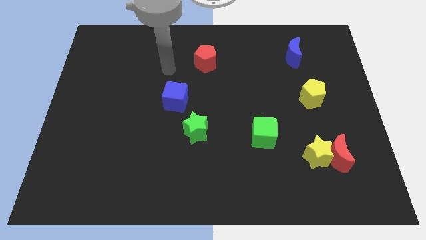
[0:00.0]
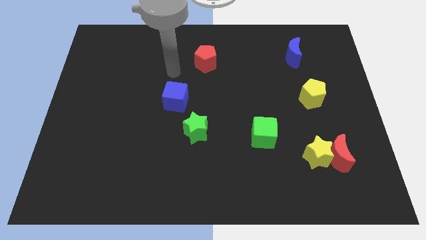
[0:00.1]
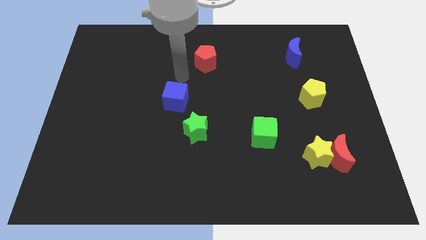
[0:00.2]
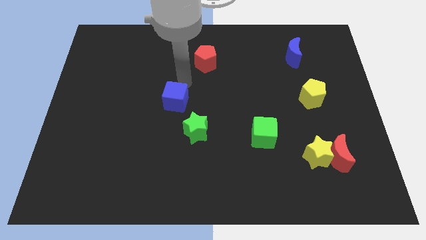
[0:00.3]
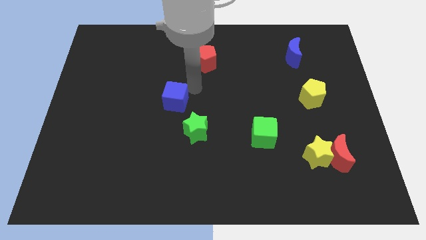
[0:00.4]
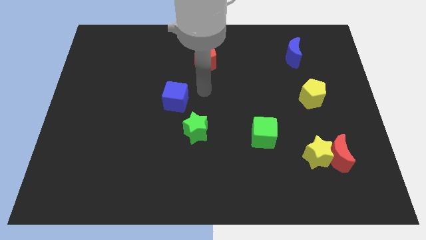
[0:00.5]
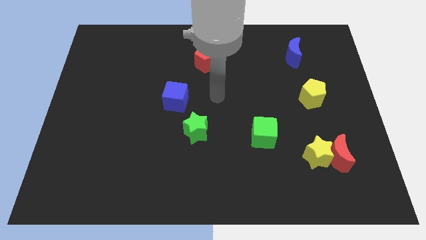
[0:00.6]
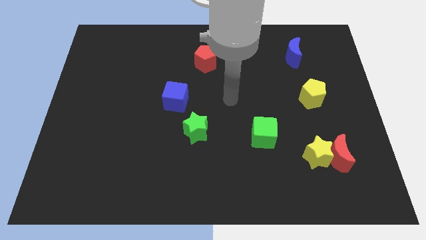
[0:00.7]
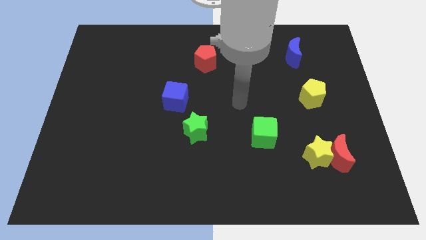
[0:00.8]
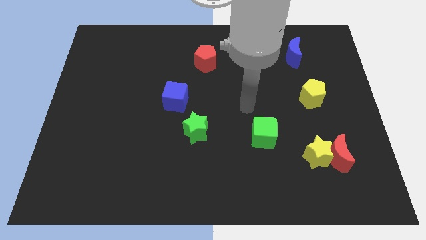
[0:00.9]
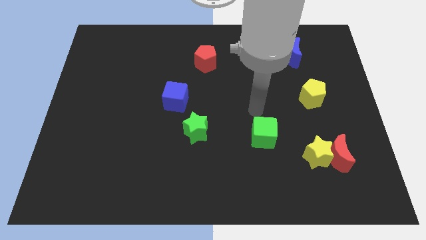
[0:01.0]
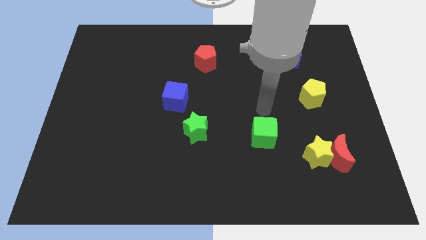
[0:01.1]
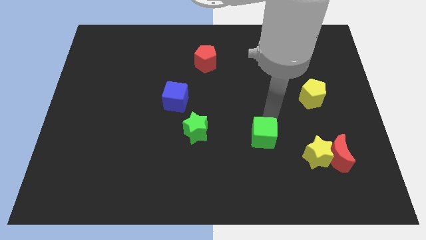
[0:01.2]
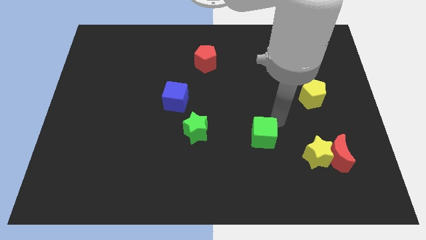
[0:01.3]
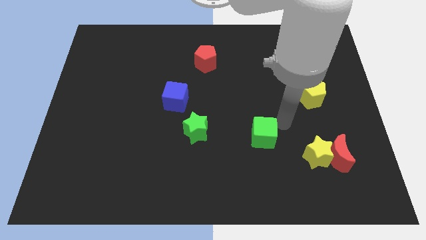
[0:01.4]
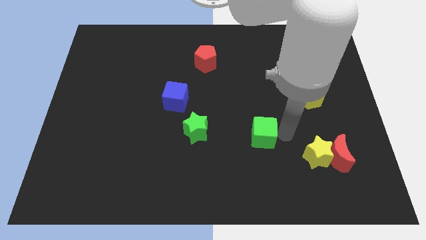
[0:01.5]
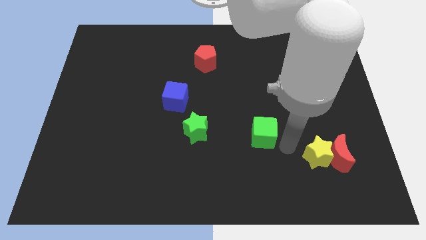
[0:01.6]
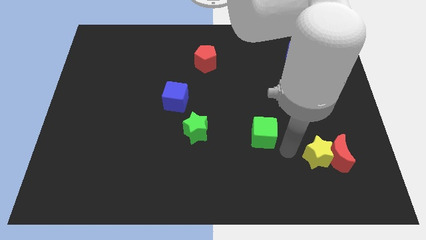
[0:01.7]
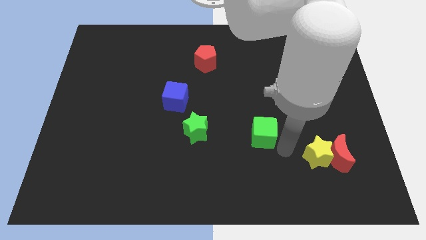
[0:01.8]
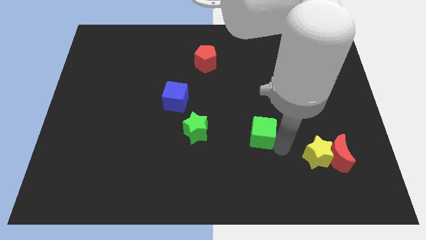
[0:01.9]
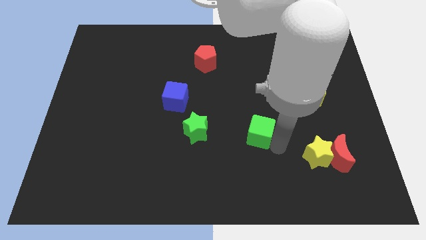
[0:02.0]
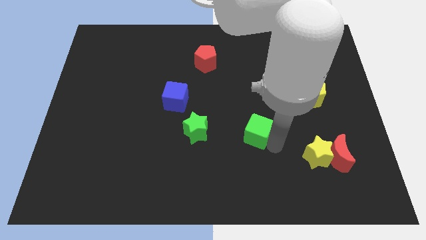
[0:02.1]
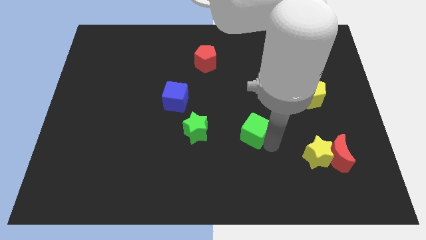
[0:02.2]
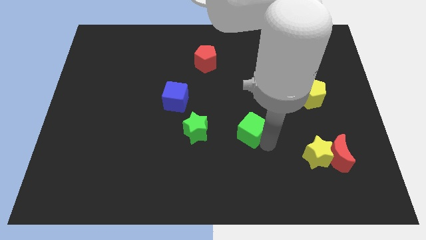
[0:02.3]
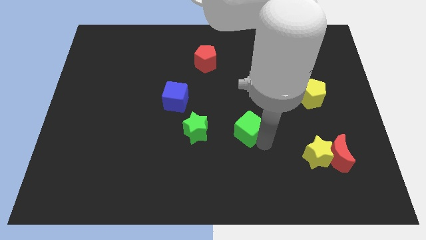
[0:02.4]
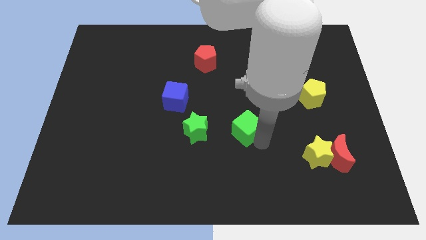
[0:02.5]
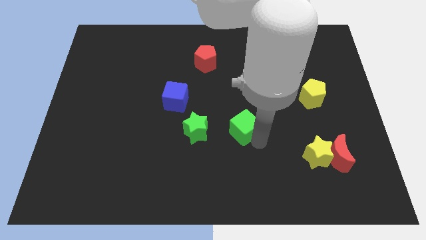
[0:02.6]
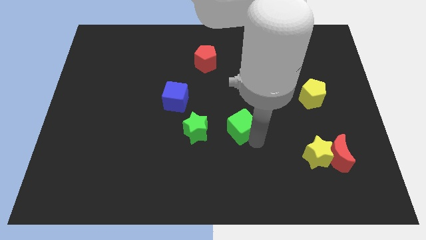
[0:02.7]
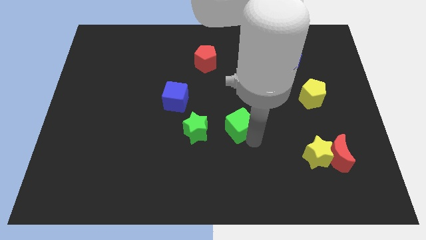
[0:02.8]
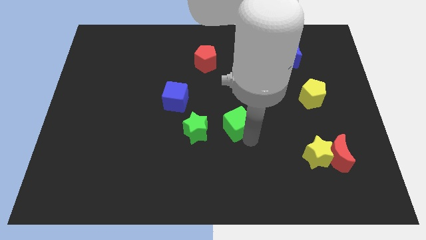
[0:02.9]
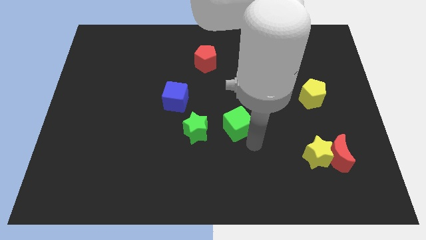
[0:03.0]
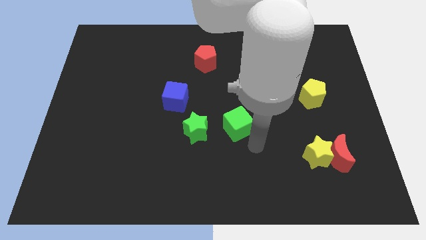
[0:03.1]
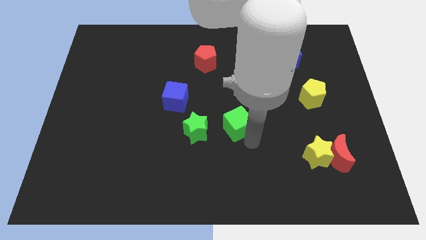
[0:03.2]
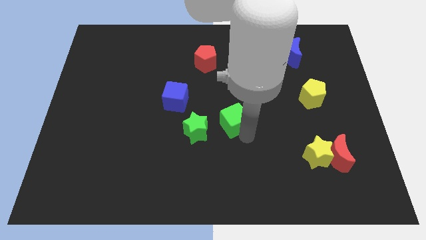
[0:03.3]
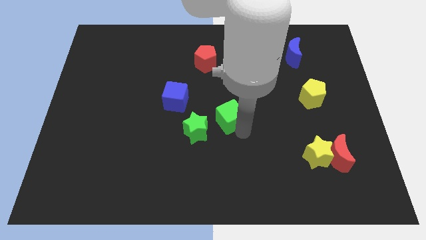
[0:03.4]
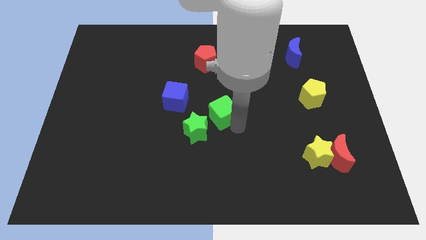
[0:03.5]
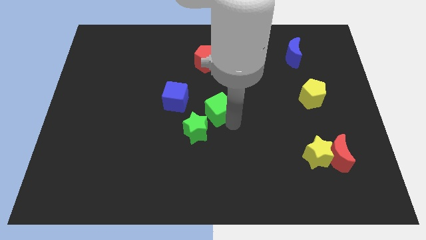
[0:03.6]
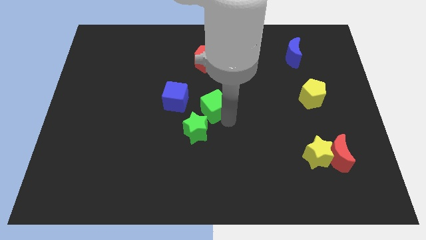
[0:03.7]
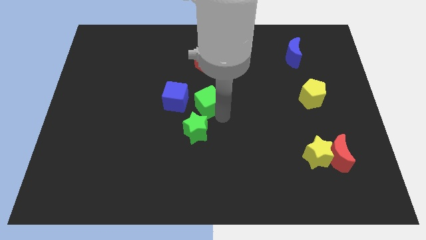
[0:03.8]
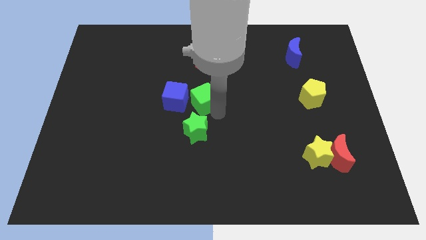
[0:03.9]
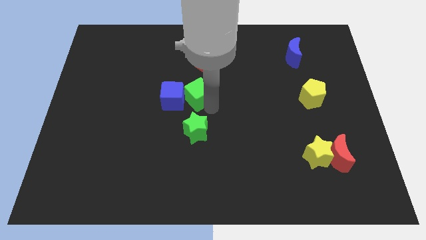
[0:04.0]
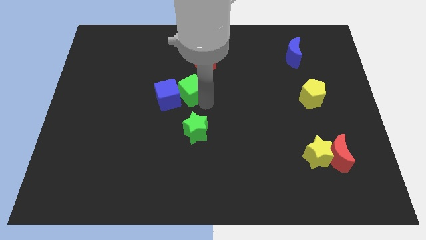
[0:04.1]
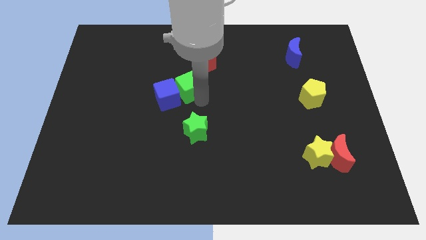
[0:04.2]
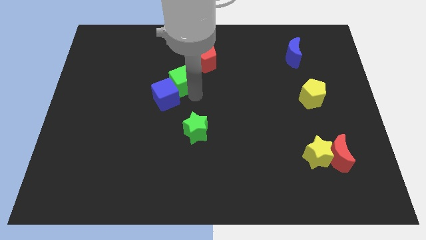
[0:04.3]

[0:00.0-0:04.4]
put the green cube to the top of the blue cube

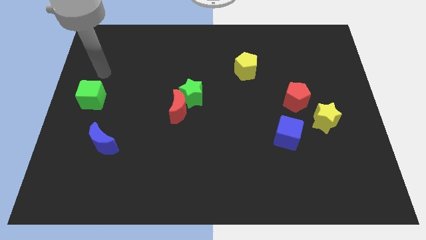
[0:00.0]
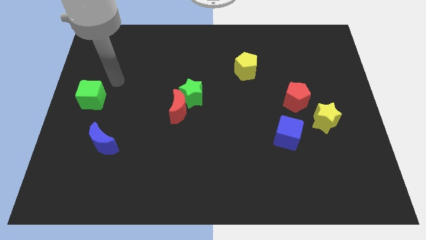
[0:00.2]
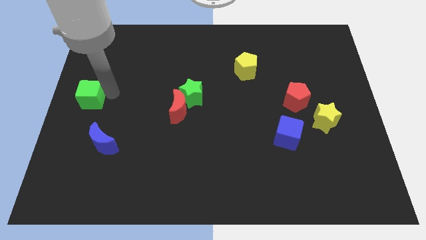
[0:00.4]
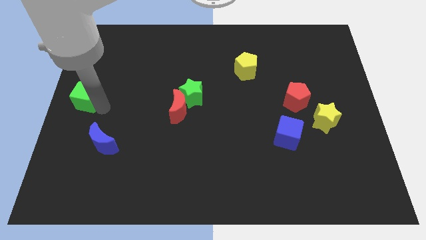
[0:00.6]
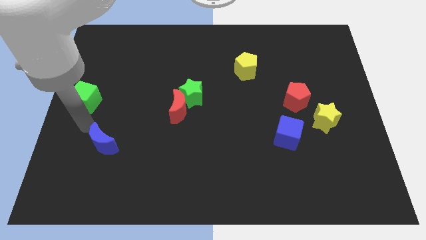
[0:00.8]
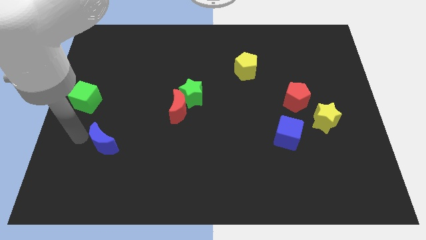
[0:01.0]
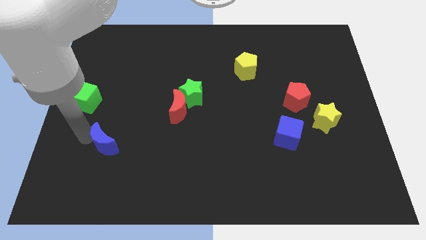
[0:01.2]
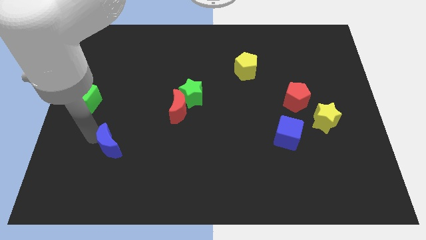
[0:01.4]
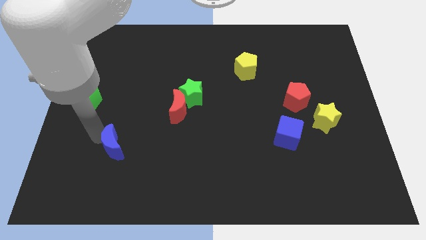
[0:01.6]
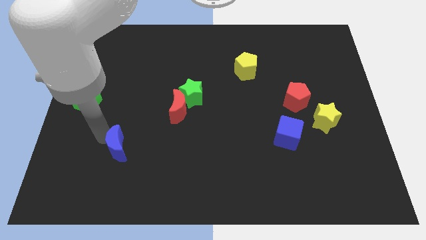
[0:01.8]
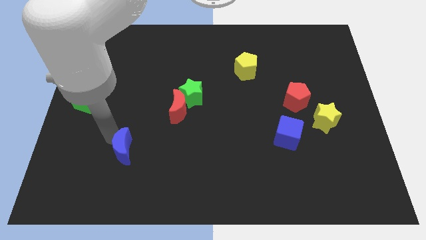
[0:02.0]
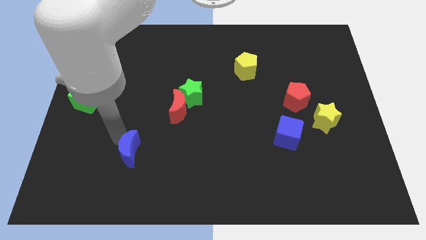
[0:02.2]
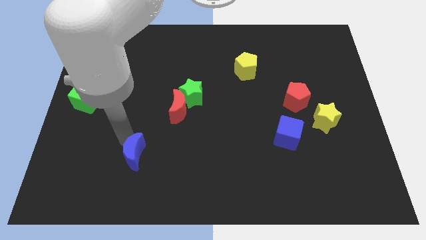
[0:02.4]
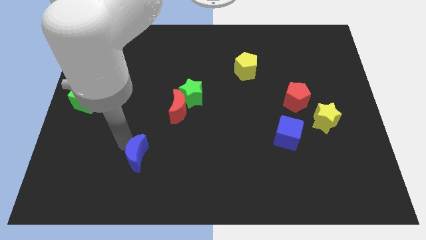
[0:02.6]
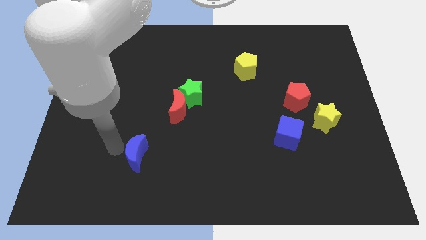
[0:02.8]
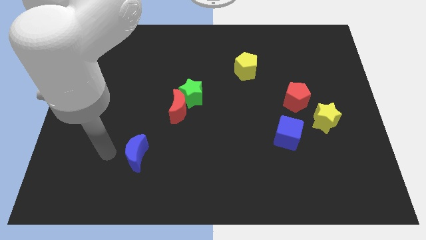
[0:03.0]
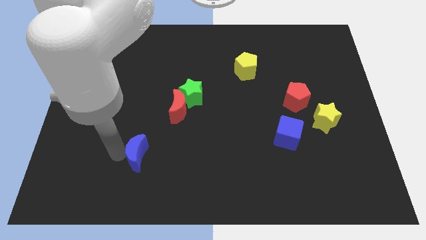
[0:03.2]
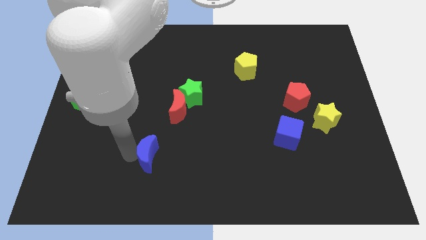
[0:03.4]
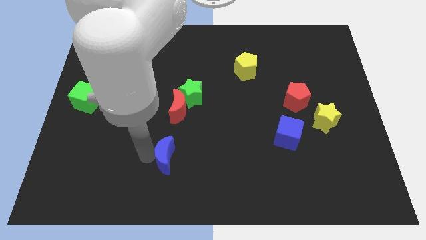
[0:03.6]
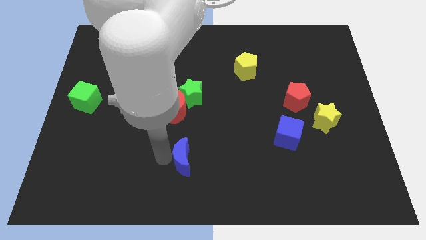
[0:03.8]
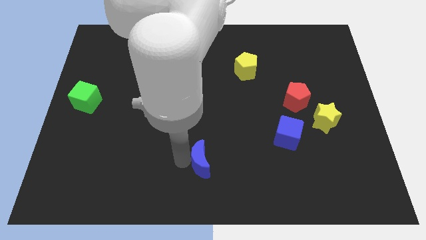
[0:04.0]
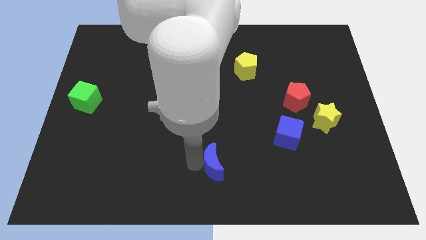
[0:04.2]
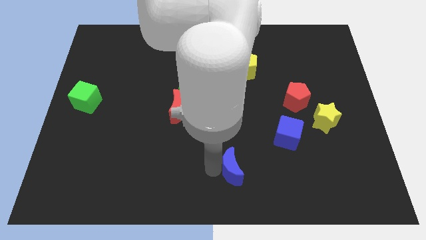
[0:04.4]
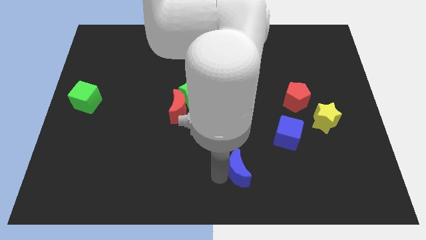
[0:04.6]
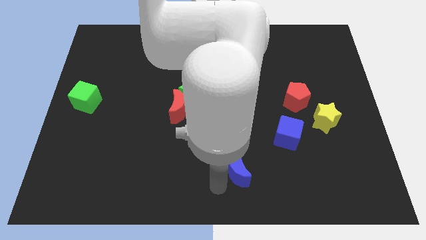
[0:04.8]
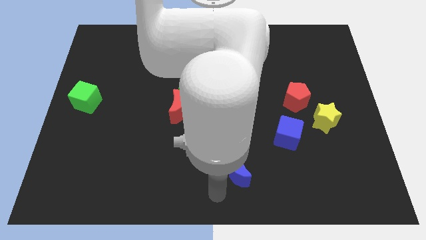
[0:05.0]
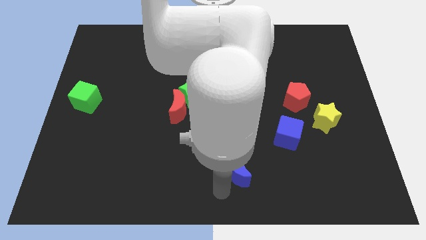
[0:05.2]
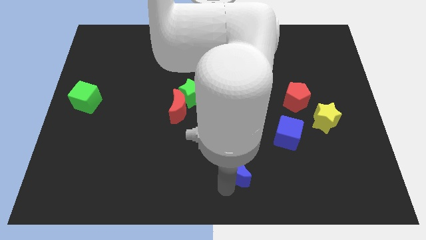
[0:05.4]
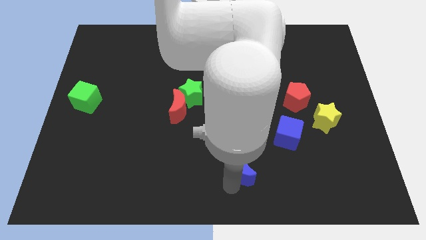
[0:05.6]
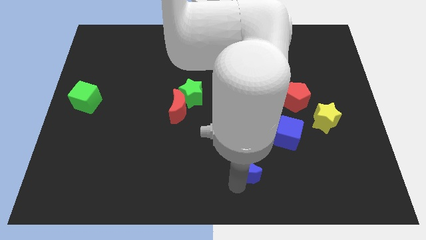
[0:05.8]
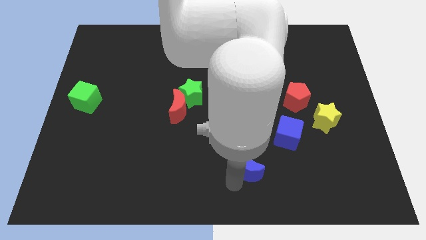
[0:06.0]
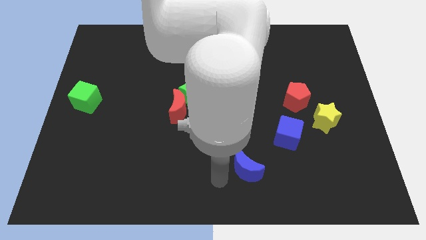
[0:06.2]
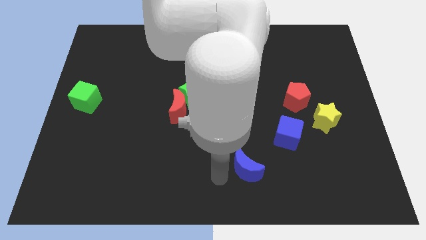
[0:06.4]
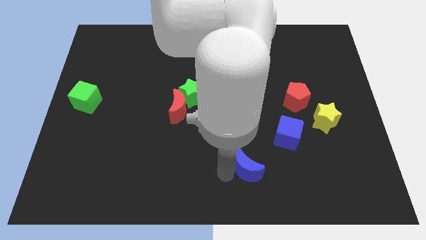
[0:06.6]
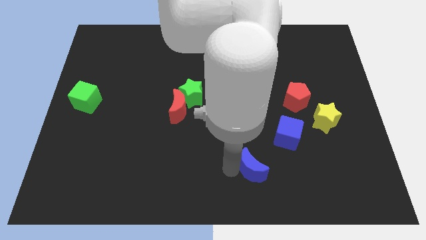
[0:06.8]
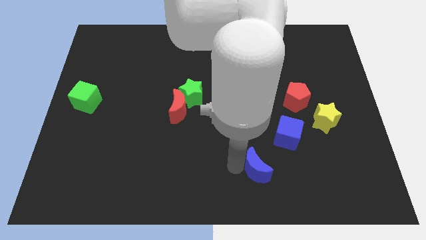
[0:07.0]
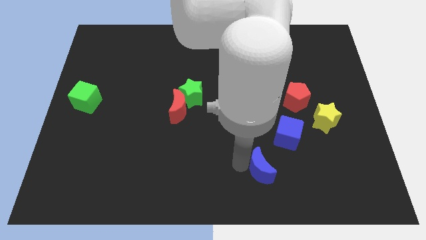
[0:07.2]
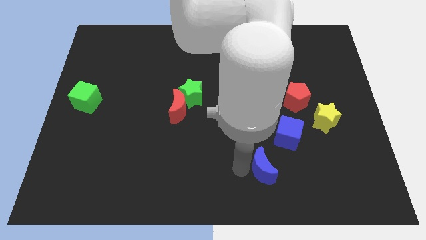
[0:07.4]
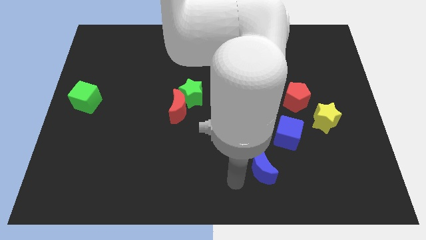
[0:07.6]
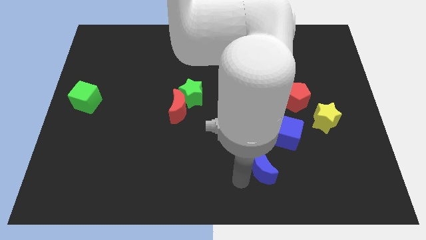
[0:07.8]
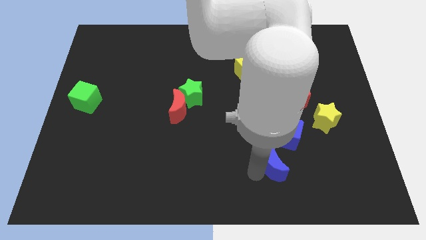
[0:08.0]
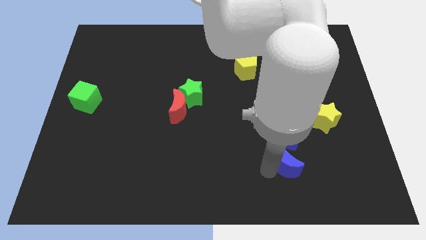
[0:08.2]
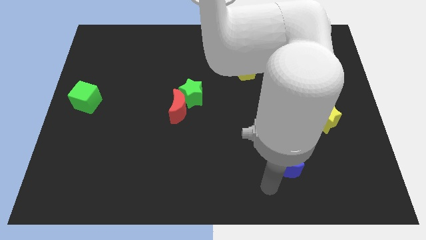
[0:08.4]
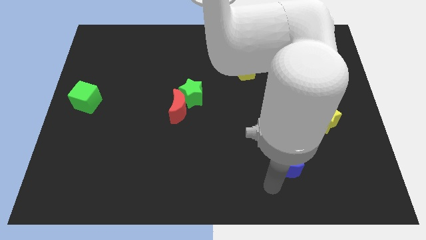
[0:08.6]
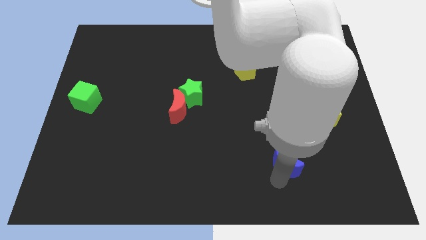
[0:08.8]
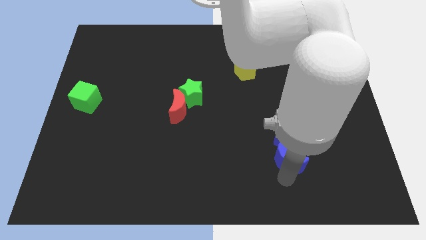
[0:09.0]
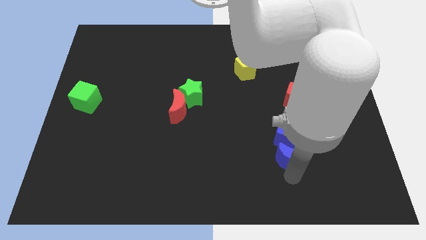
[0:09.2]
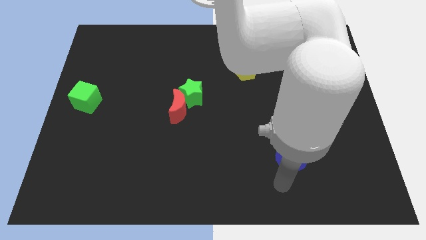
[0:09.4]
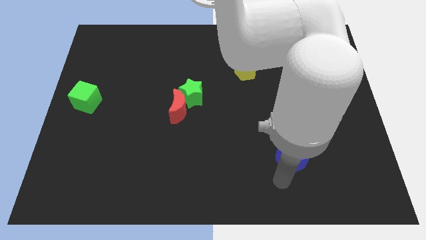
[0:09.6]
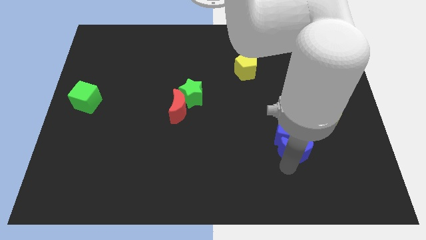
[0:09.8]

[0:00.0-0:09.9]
put the blue moon to the bottom side of the red pentagon
